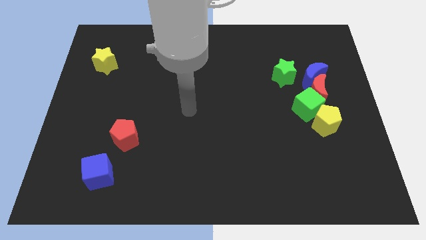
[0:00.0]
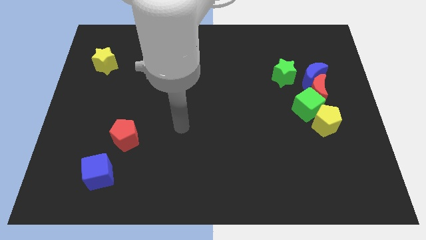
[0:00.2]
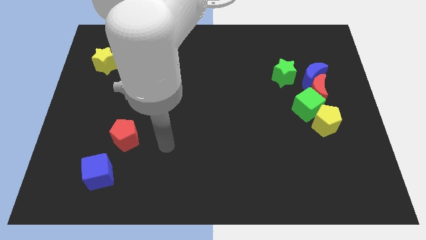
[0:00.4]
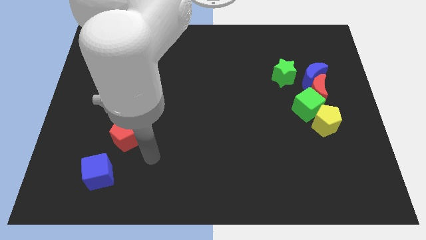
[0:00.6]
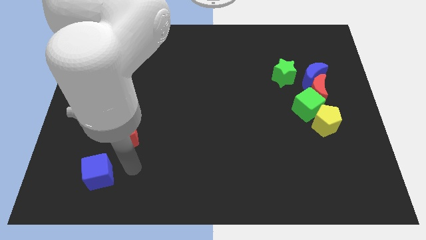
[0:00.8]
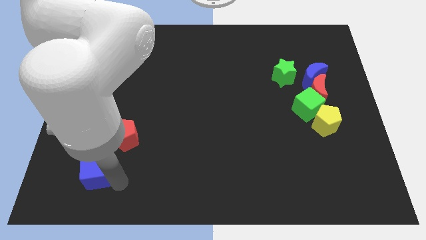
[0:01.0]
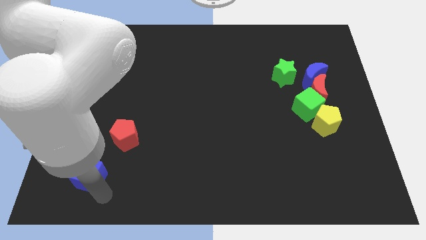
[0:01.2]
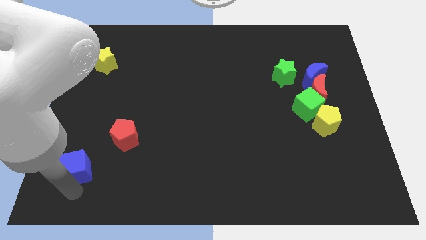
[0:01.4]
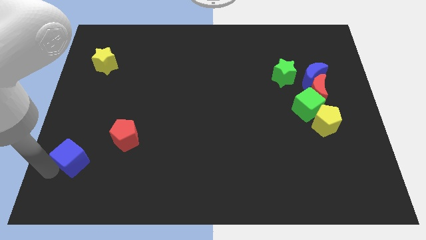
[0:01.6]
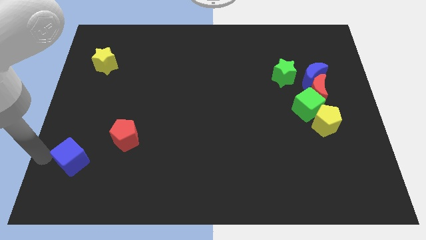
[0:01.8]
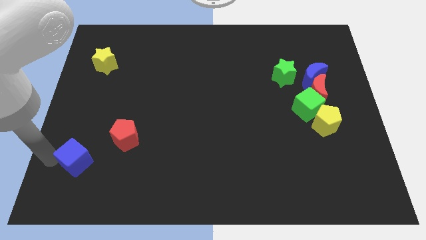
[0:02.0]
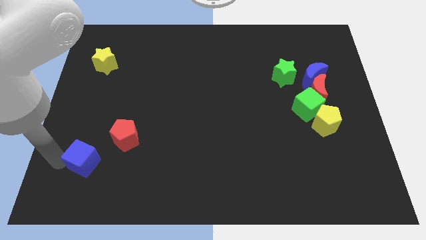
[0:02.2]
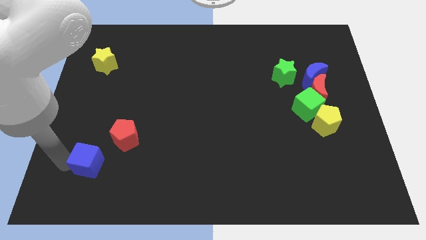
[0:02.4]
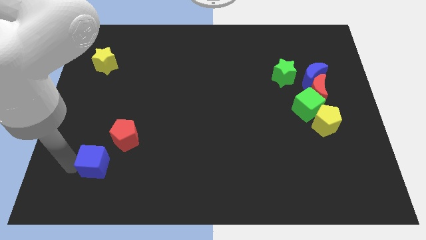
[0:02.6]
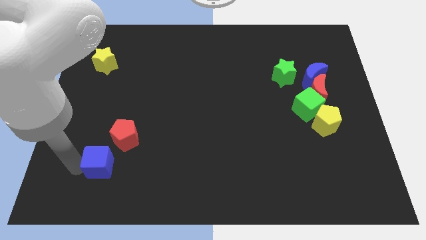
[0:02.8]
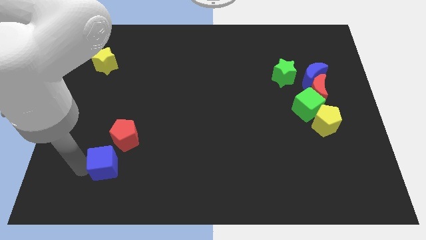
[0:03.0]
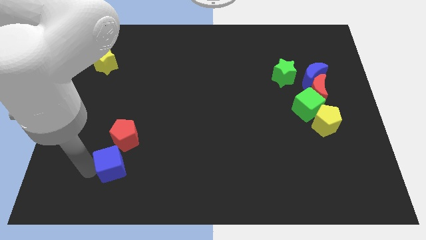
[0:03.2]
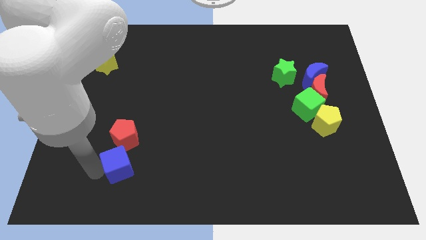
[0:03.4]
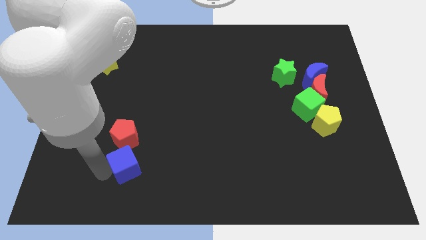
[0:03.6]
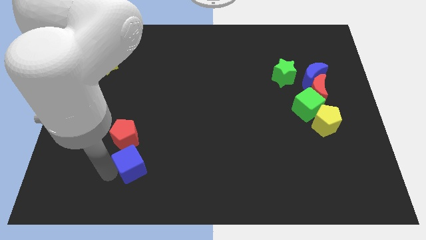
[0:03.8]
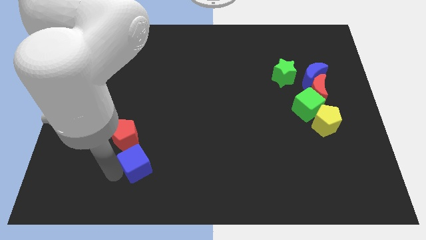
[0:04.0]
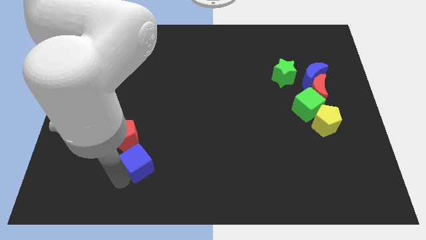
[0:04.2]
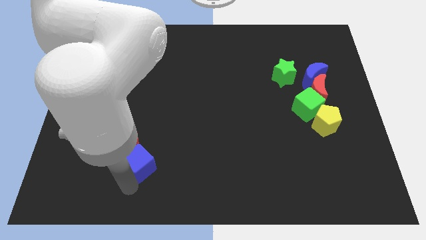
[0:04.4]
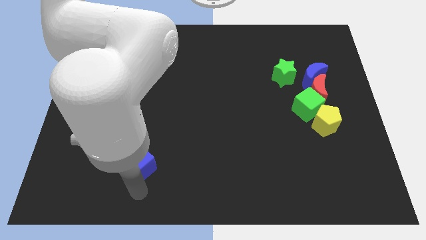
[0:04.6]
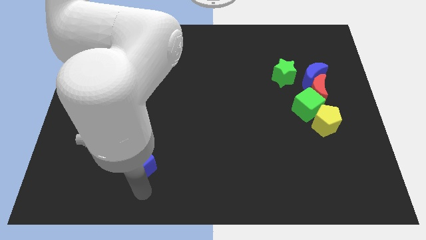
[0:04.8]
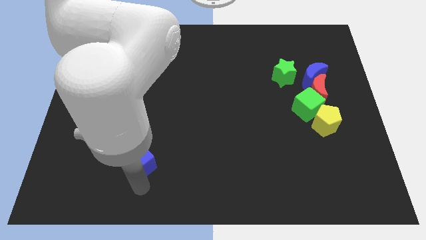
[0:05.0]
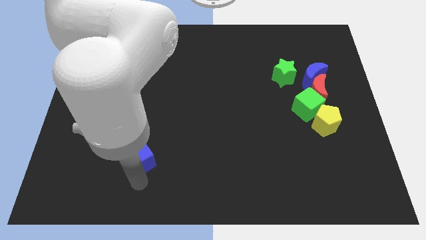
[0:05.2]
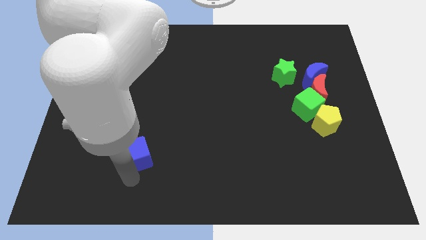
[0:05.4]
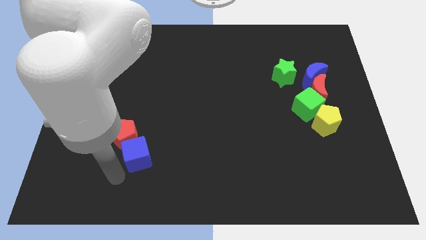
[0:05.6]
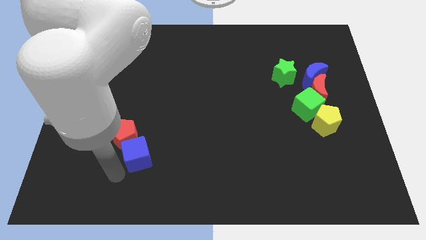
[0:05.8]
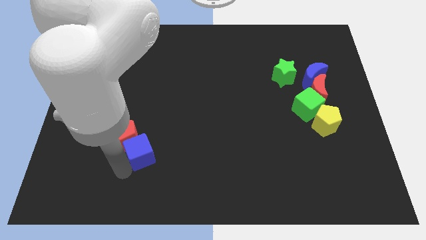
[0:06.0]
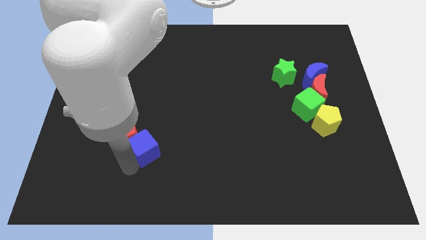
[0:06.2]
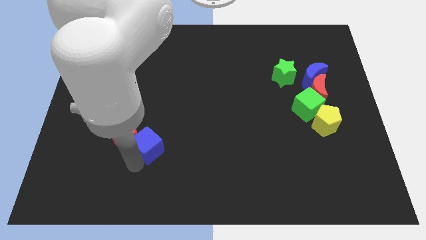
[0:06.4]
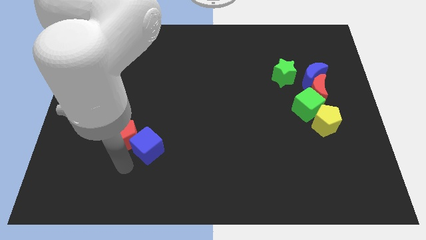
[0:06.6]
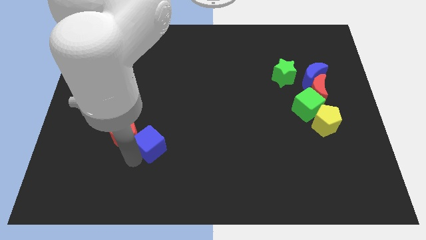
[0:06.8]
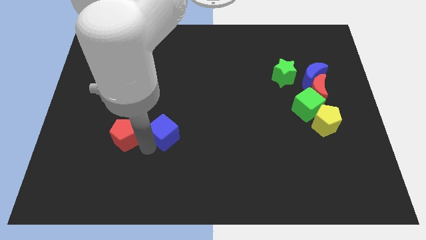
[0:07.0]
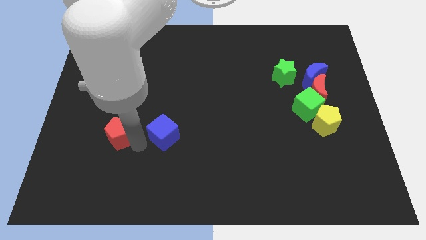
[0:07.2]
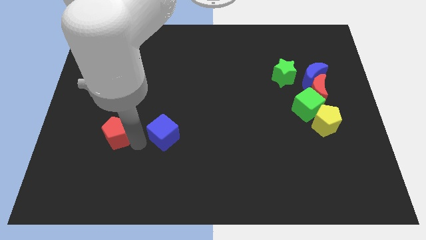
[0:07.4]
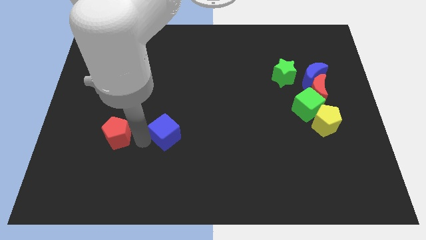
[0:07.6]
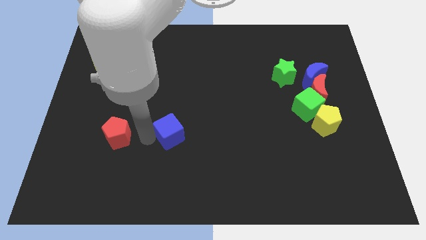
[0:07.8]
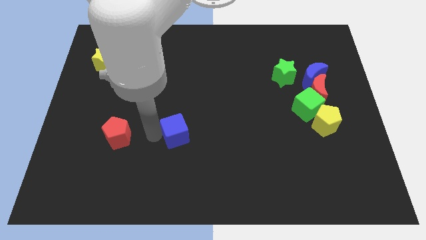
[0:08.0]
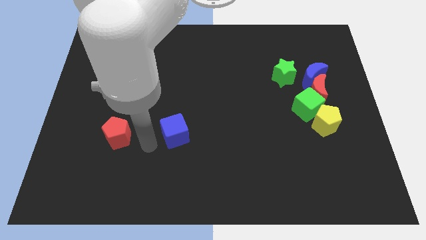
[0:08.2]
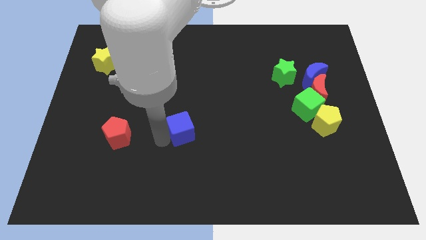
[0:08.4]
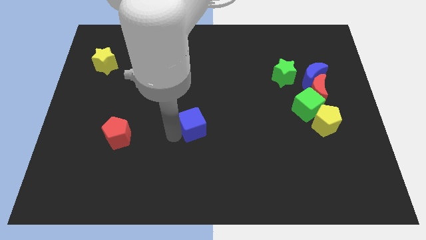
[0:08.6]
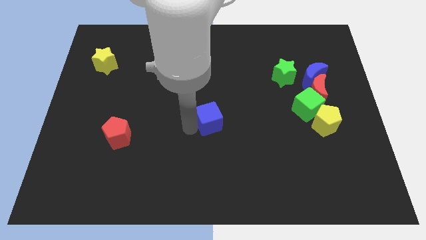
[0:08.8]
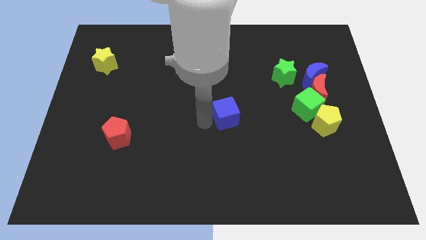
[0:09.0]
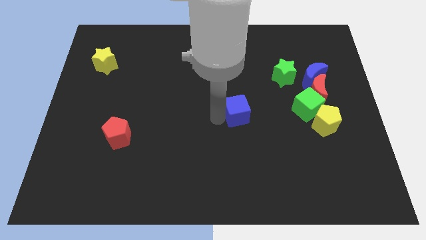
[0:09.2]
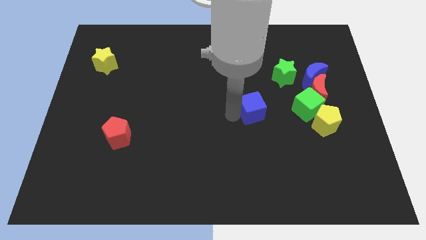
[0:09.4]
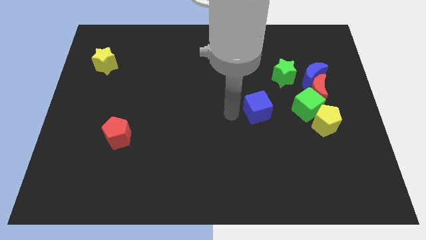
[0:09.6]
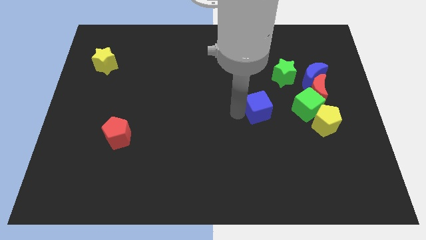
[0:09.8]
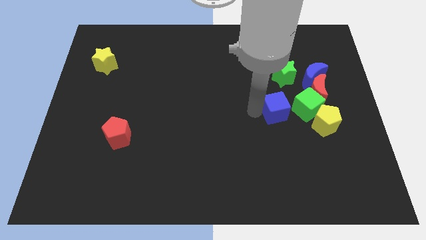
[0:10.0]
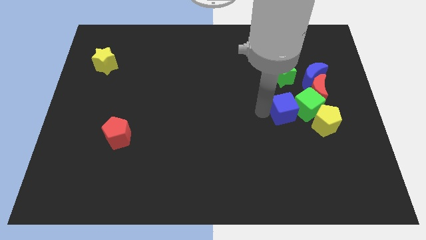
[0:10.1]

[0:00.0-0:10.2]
move the blue cube to the top left side of the yellow pentagon

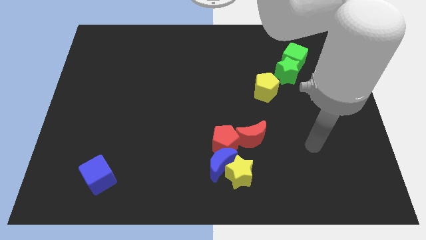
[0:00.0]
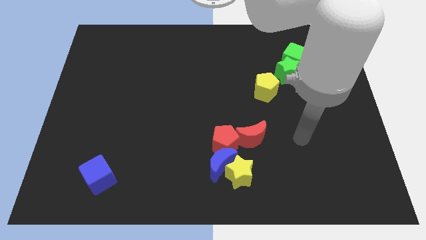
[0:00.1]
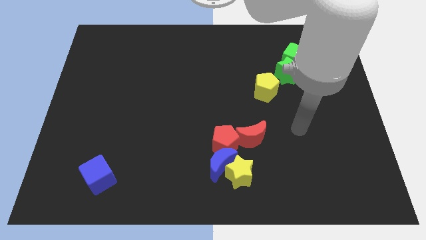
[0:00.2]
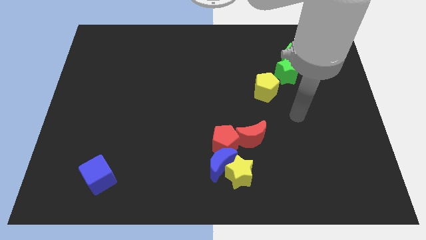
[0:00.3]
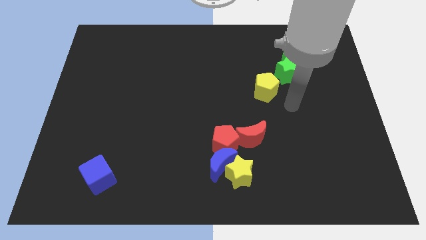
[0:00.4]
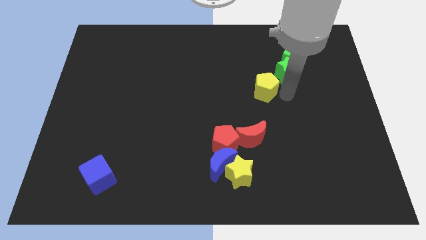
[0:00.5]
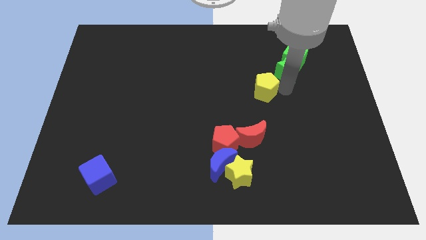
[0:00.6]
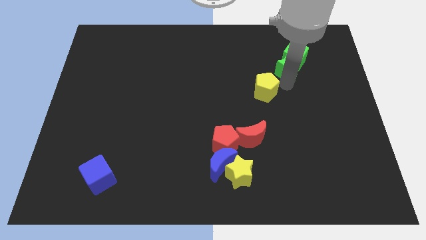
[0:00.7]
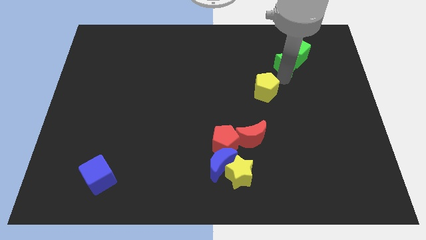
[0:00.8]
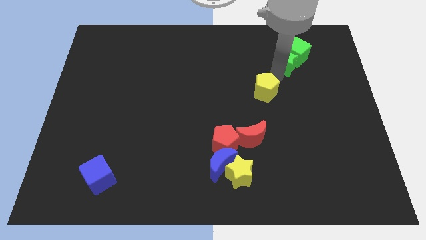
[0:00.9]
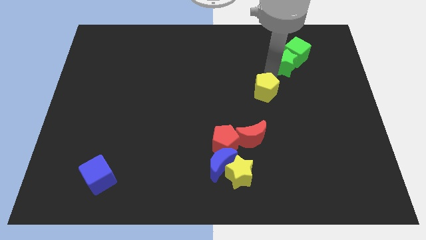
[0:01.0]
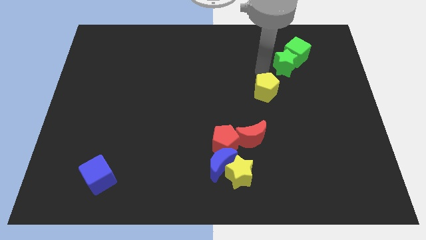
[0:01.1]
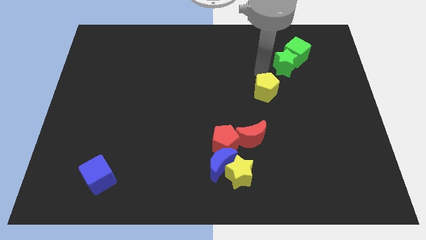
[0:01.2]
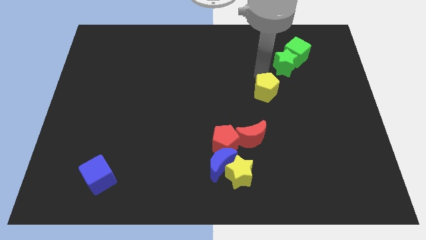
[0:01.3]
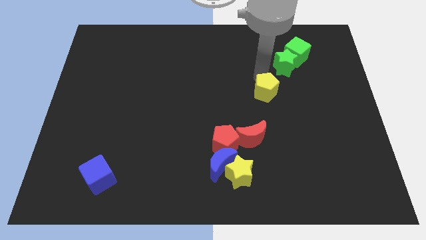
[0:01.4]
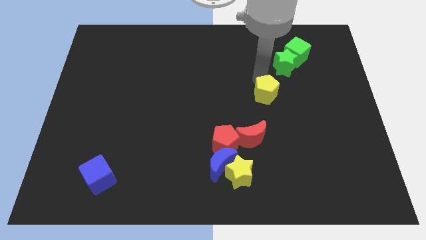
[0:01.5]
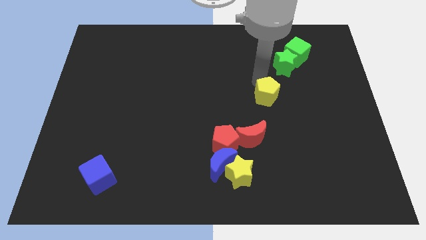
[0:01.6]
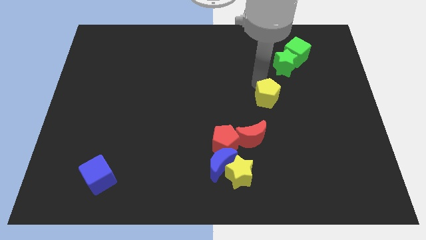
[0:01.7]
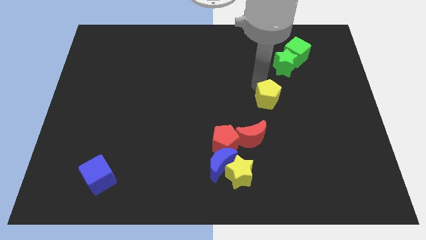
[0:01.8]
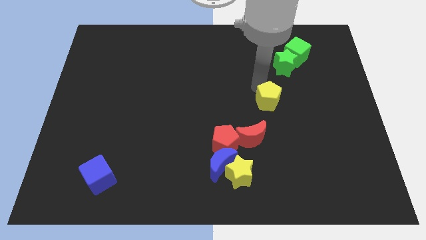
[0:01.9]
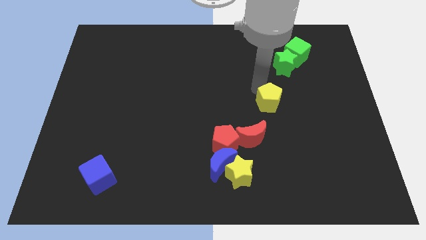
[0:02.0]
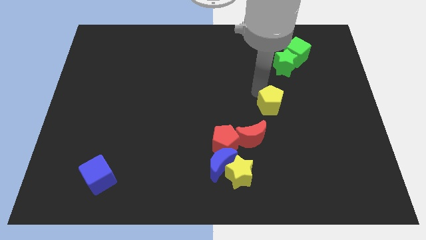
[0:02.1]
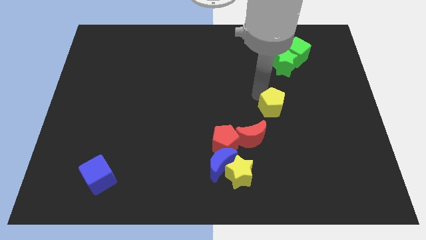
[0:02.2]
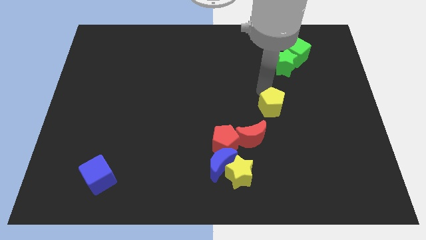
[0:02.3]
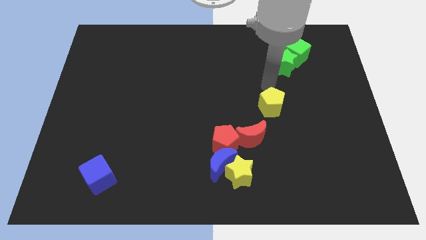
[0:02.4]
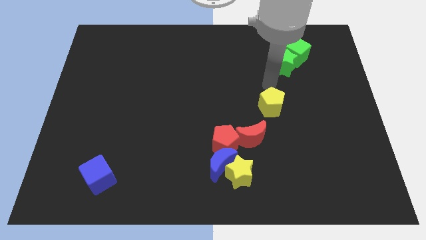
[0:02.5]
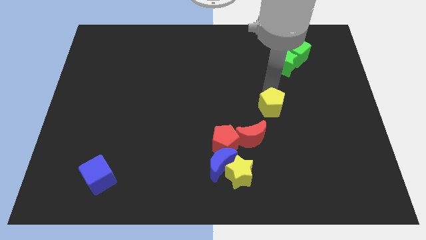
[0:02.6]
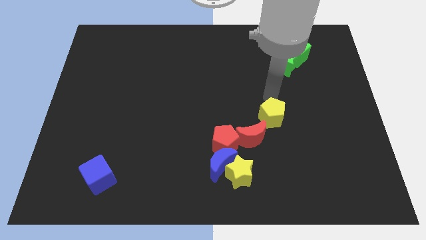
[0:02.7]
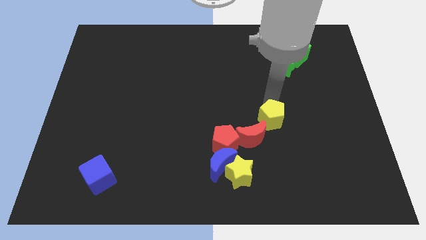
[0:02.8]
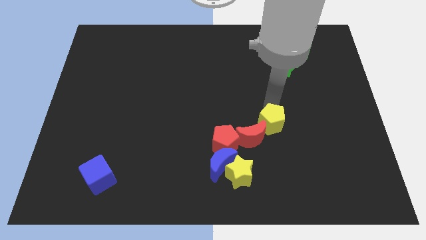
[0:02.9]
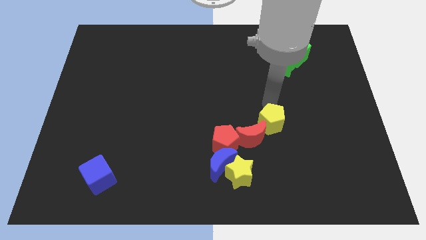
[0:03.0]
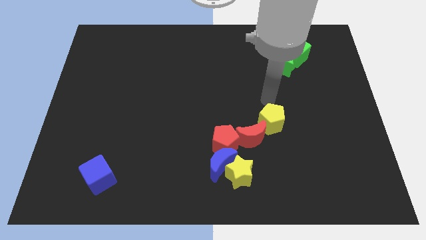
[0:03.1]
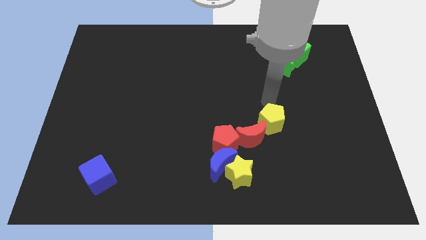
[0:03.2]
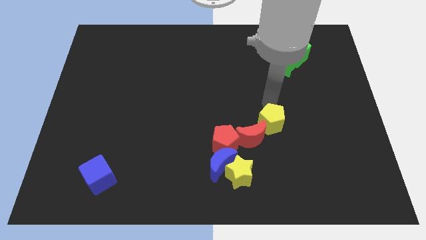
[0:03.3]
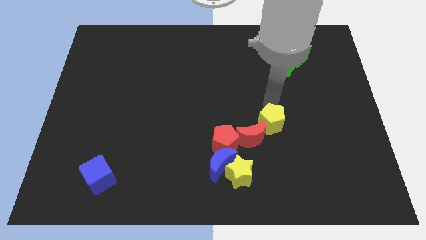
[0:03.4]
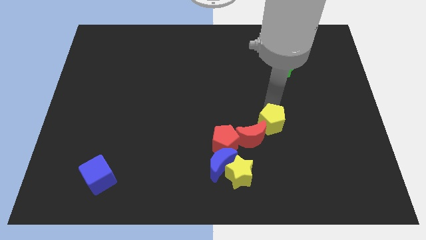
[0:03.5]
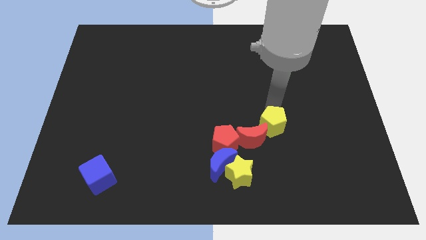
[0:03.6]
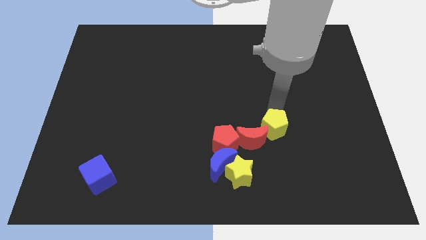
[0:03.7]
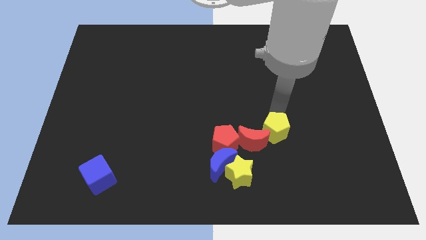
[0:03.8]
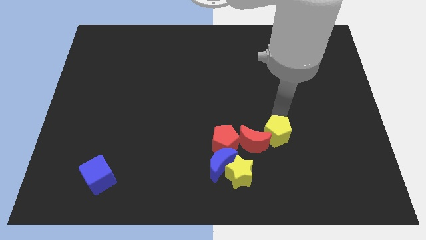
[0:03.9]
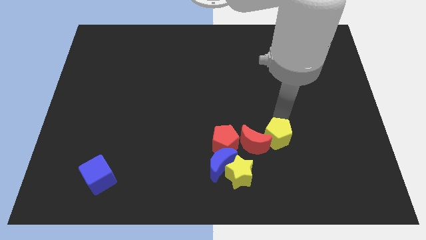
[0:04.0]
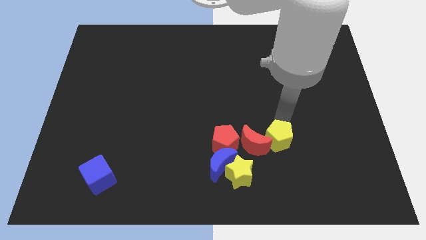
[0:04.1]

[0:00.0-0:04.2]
put the yellow pentagon diagonally down and to the right of the red moon
